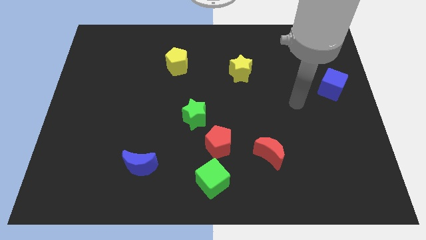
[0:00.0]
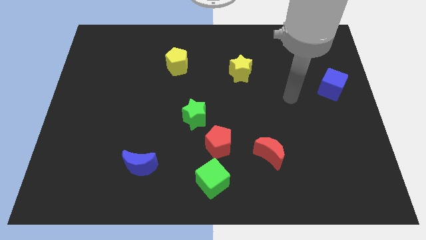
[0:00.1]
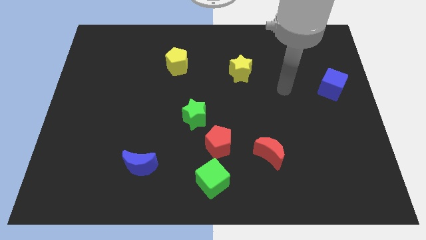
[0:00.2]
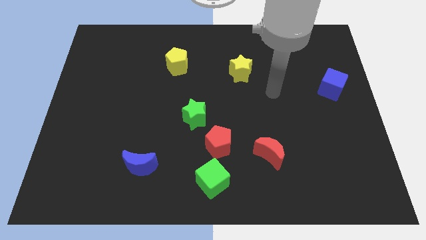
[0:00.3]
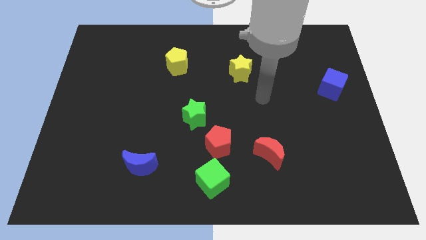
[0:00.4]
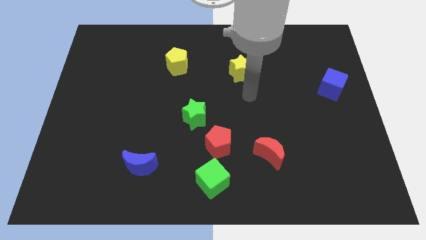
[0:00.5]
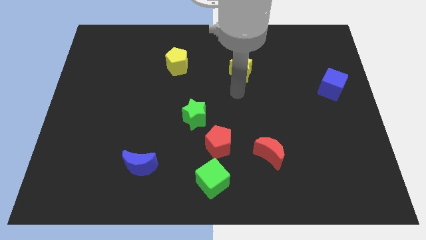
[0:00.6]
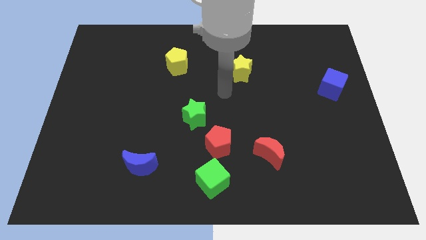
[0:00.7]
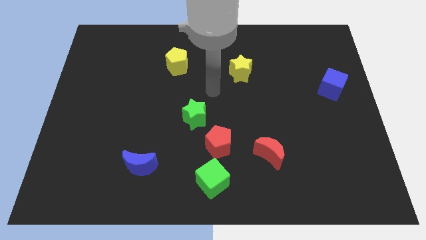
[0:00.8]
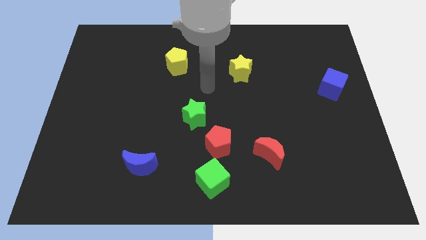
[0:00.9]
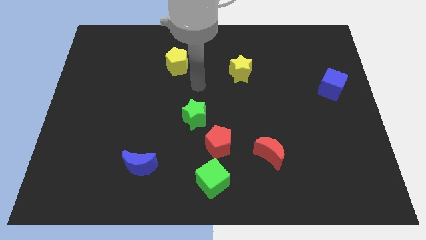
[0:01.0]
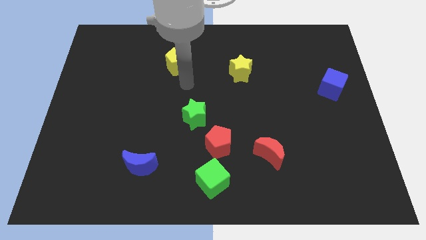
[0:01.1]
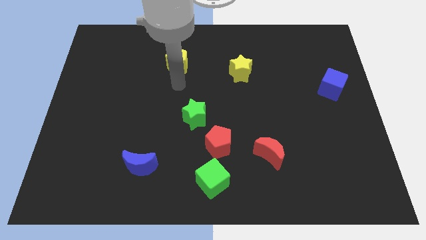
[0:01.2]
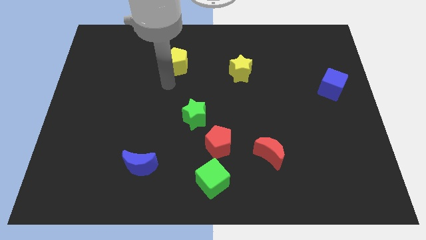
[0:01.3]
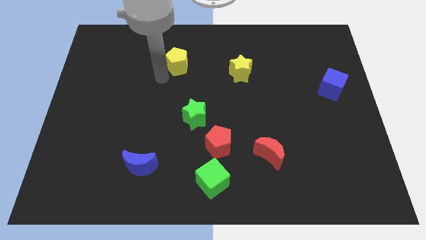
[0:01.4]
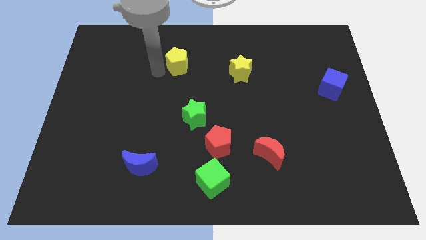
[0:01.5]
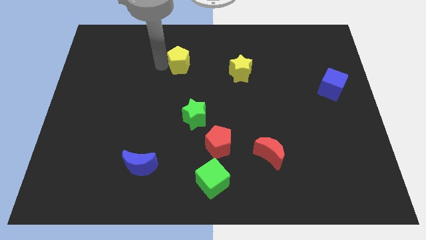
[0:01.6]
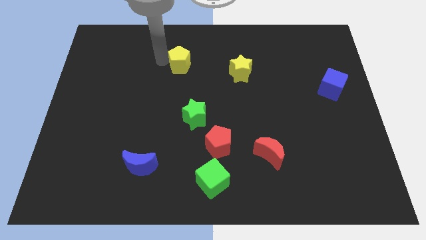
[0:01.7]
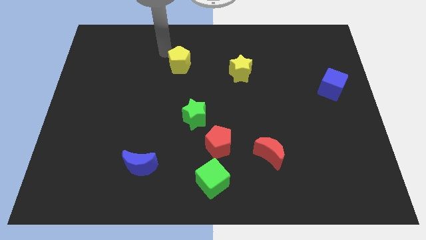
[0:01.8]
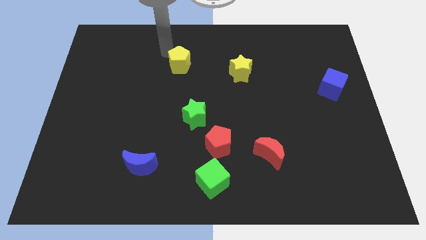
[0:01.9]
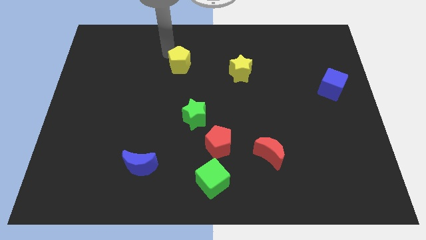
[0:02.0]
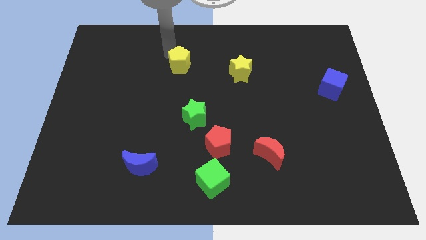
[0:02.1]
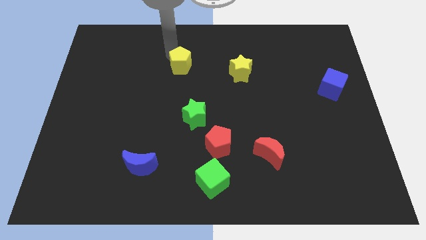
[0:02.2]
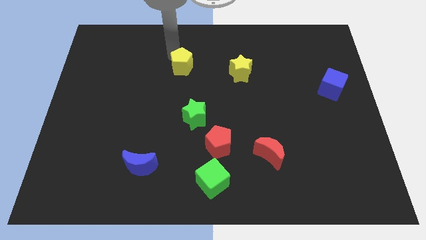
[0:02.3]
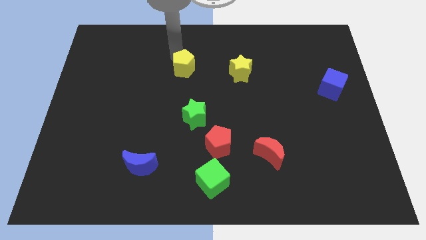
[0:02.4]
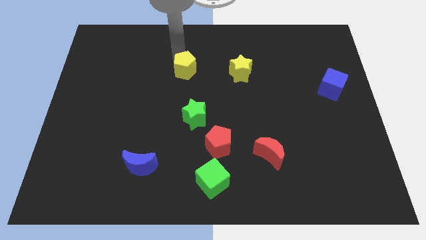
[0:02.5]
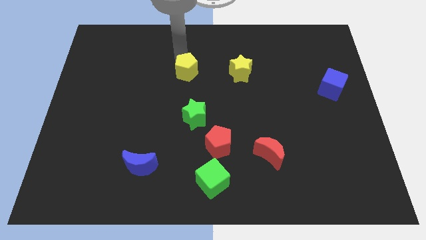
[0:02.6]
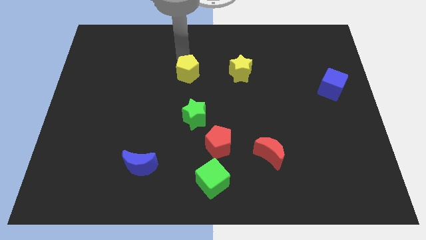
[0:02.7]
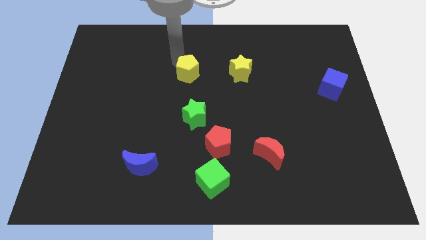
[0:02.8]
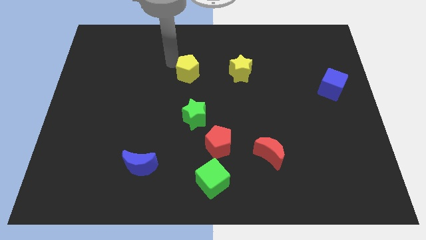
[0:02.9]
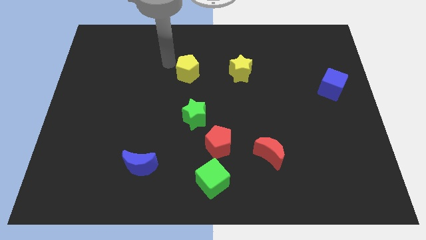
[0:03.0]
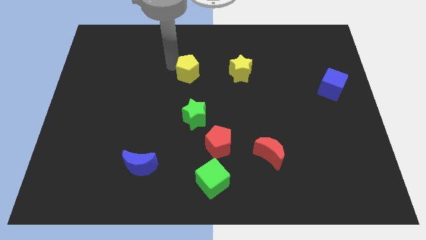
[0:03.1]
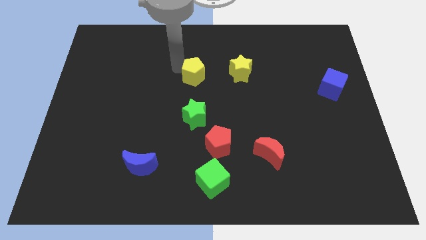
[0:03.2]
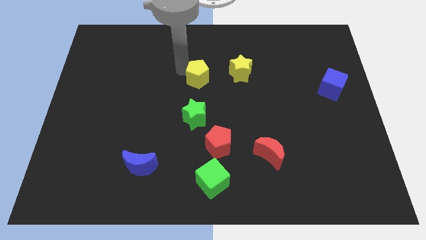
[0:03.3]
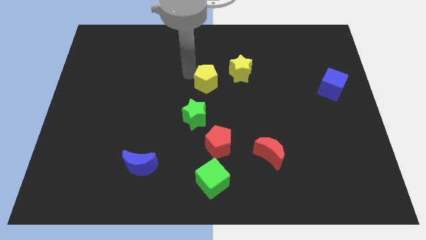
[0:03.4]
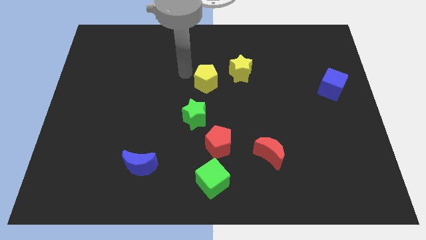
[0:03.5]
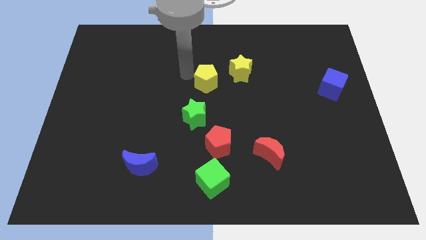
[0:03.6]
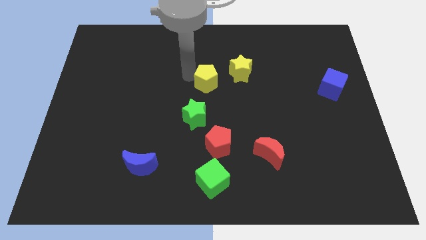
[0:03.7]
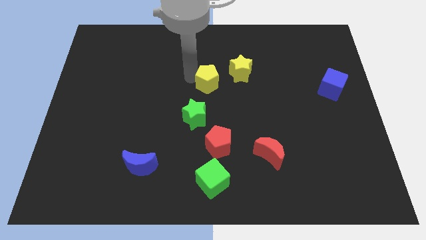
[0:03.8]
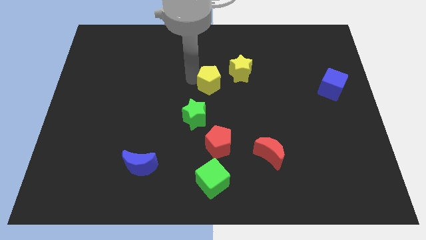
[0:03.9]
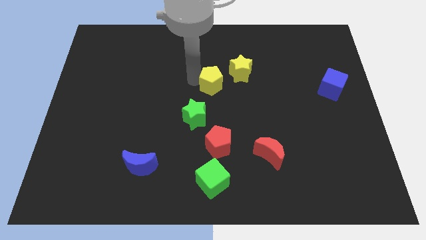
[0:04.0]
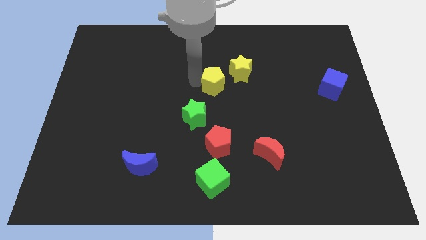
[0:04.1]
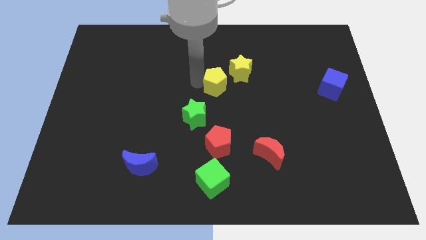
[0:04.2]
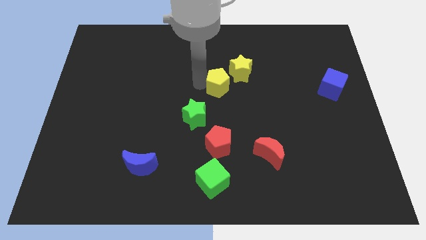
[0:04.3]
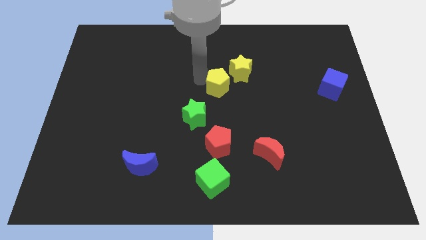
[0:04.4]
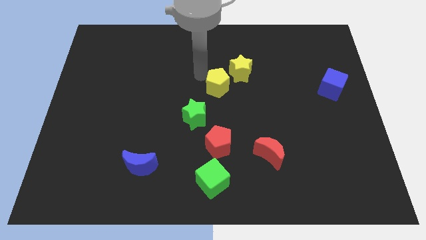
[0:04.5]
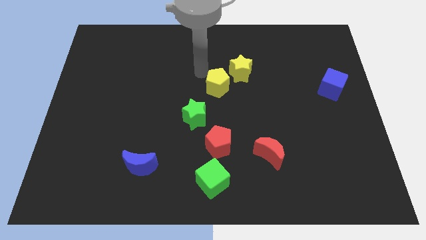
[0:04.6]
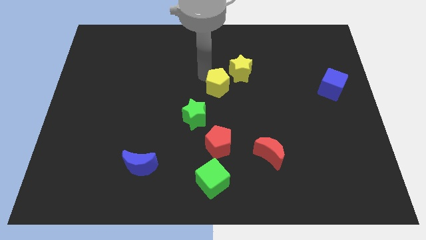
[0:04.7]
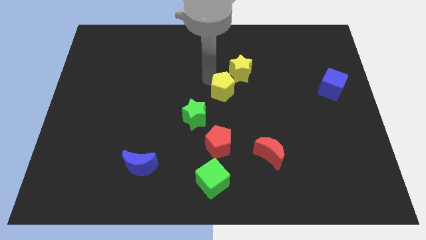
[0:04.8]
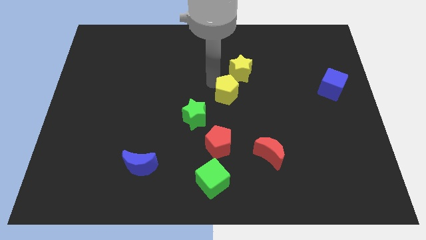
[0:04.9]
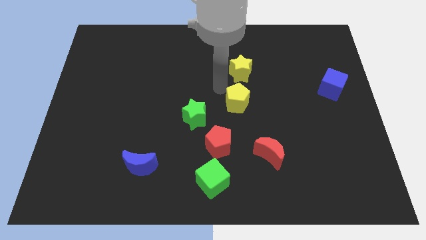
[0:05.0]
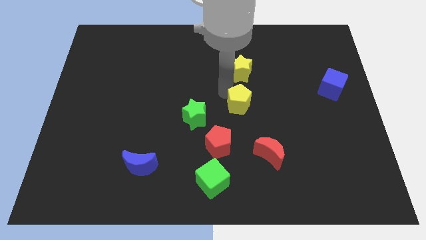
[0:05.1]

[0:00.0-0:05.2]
slide the yellow pentagon down and then right

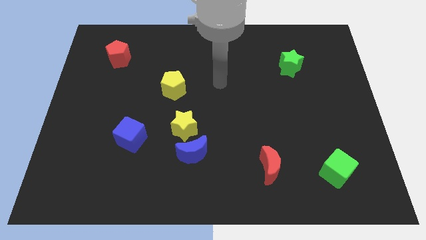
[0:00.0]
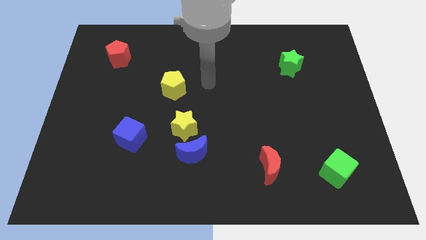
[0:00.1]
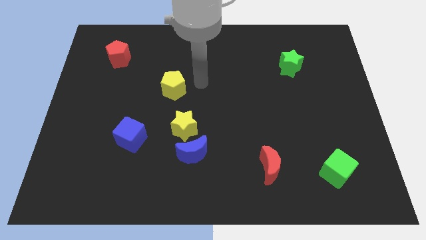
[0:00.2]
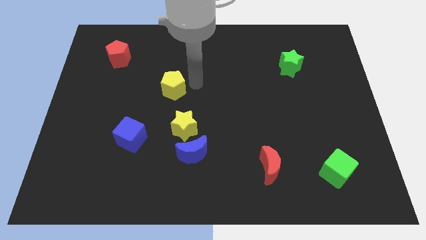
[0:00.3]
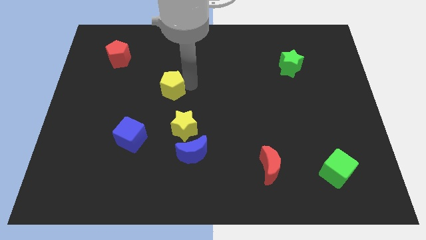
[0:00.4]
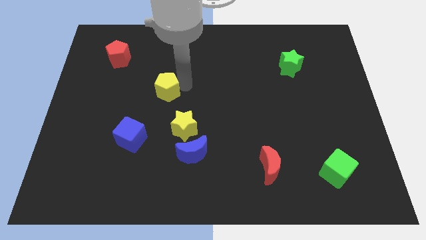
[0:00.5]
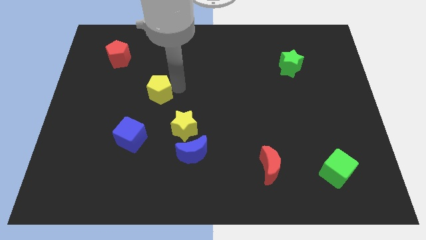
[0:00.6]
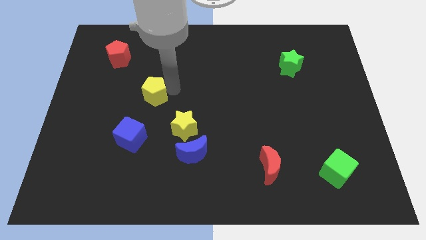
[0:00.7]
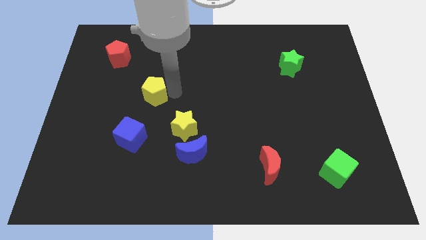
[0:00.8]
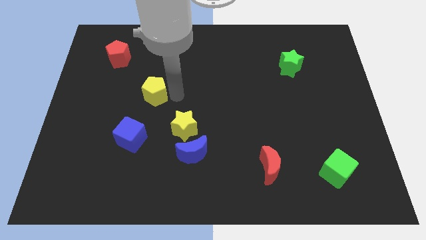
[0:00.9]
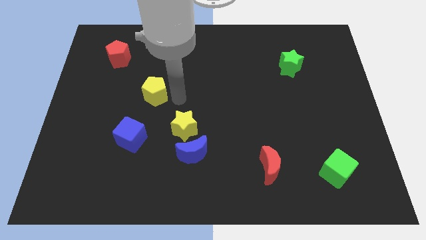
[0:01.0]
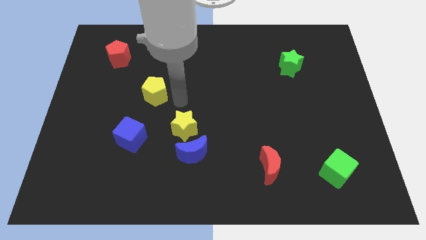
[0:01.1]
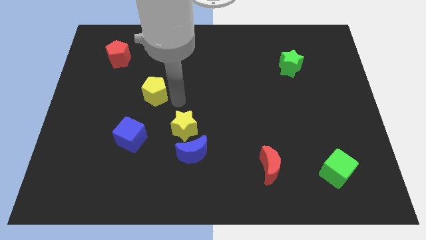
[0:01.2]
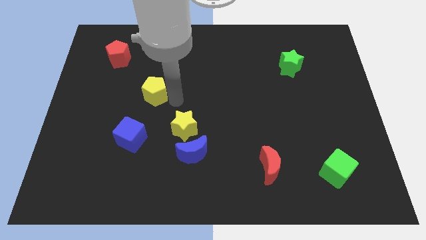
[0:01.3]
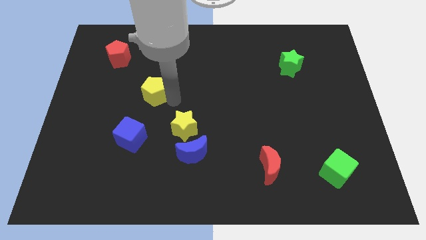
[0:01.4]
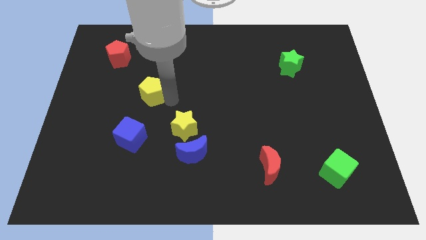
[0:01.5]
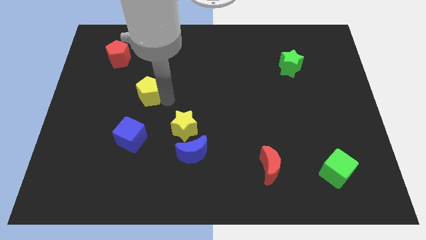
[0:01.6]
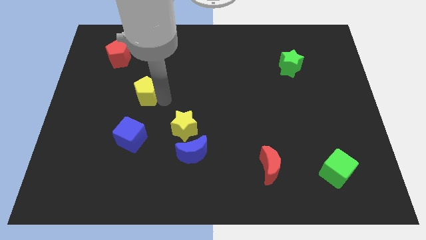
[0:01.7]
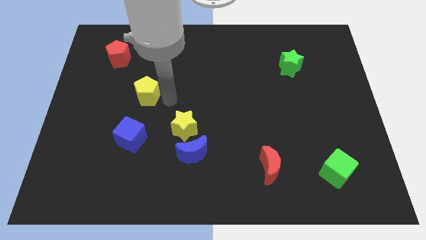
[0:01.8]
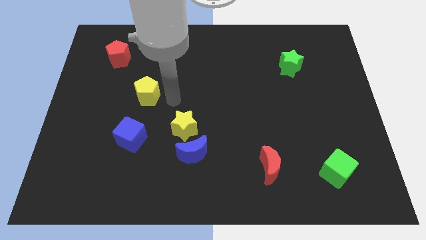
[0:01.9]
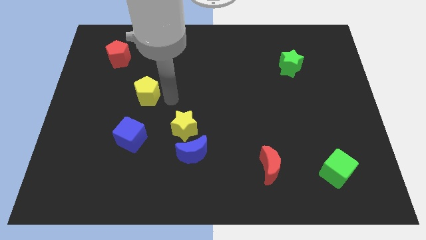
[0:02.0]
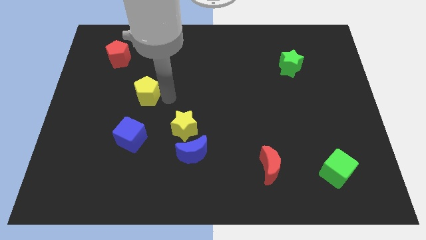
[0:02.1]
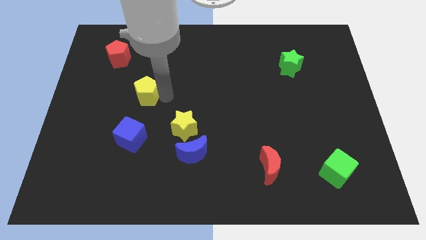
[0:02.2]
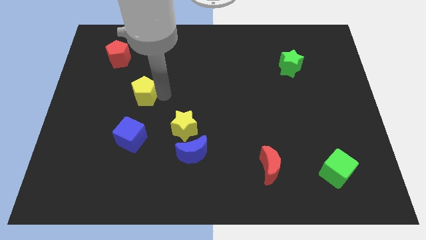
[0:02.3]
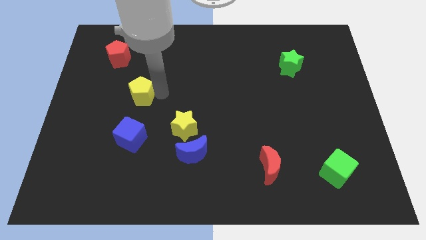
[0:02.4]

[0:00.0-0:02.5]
move the yellow pentagon left somewhat
